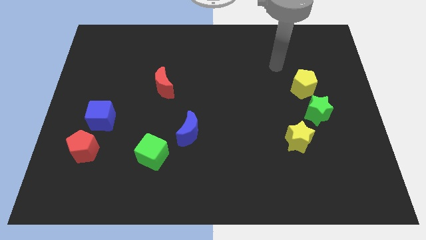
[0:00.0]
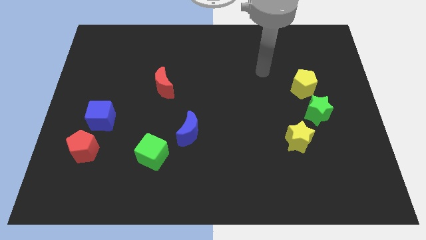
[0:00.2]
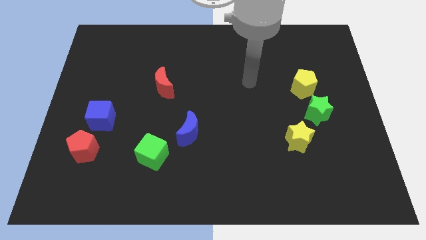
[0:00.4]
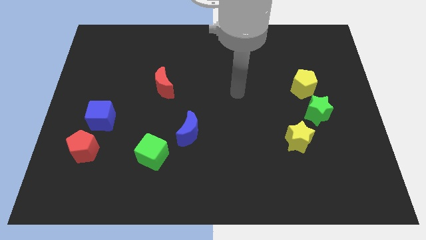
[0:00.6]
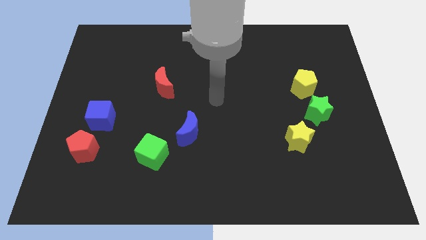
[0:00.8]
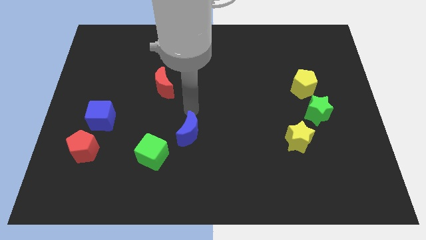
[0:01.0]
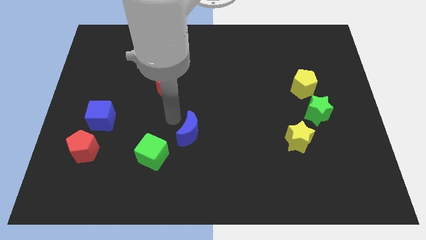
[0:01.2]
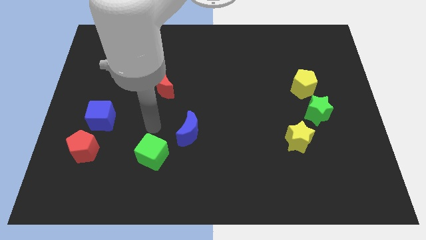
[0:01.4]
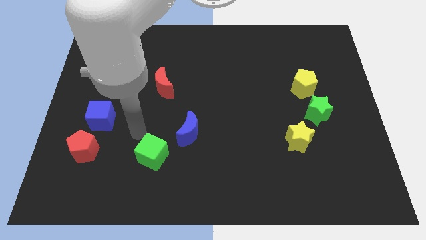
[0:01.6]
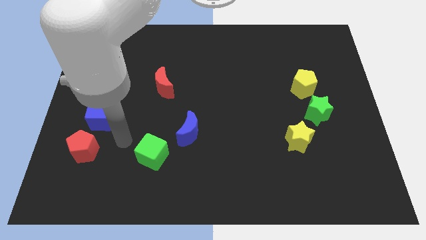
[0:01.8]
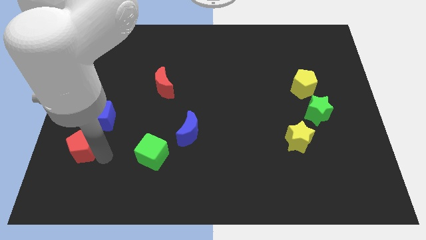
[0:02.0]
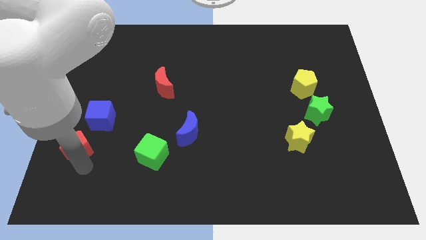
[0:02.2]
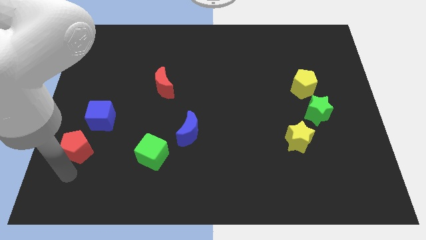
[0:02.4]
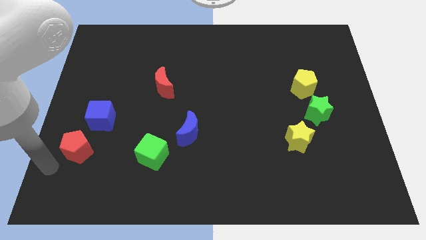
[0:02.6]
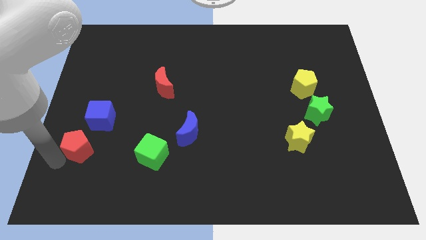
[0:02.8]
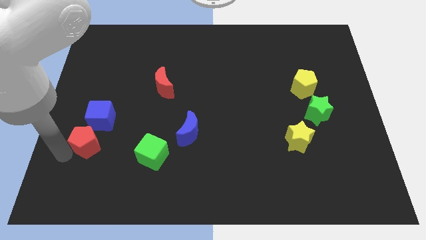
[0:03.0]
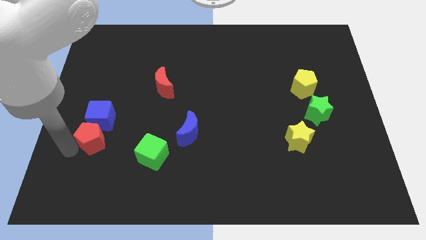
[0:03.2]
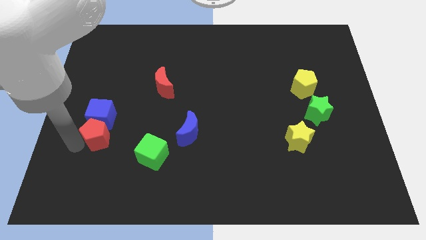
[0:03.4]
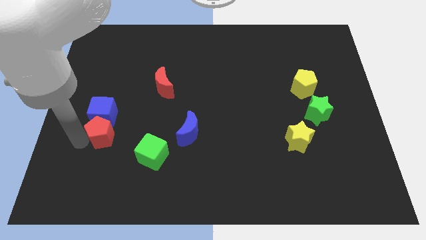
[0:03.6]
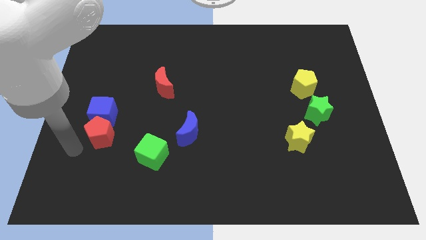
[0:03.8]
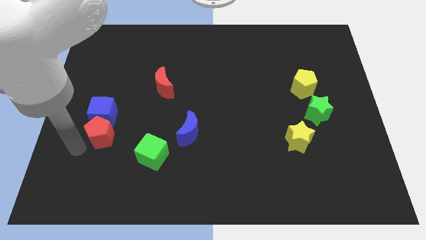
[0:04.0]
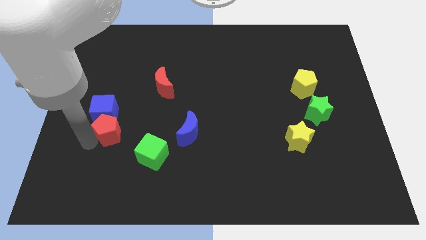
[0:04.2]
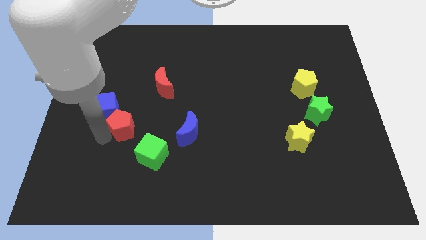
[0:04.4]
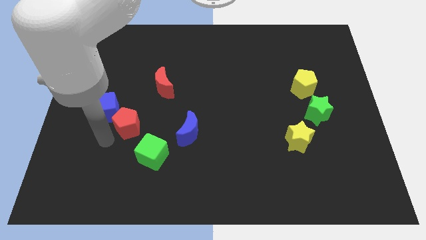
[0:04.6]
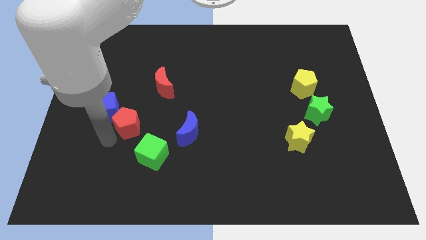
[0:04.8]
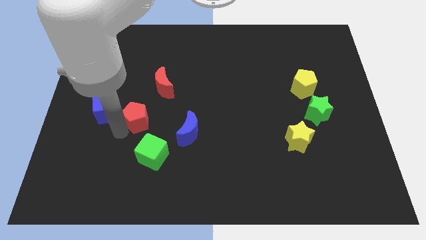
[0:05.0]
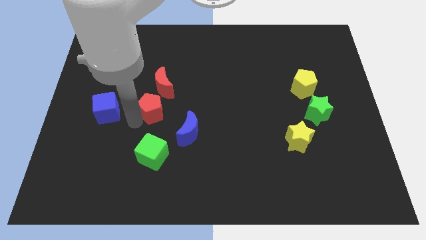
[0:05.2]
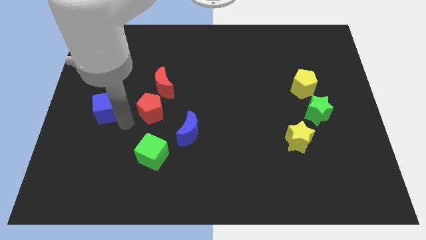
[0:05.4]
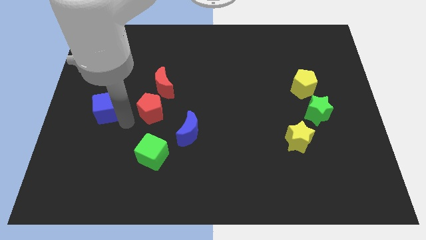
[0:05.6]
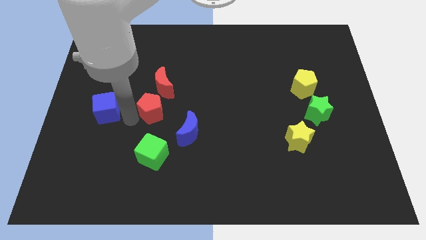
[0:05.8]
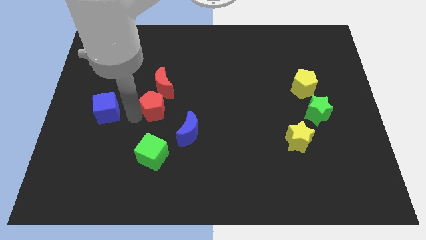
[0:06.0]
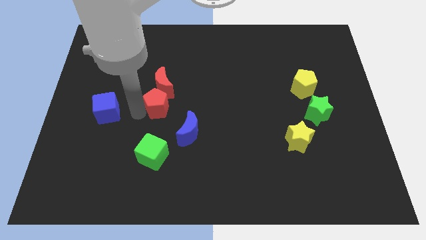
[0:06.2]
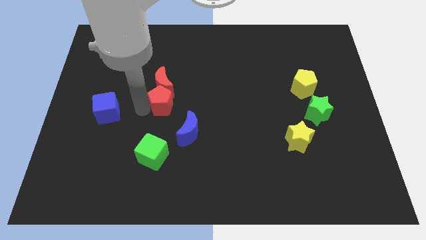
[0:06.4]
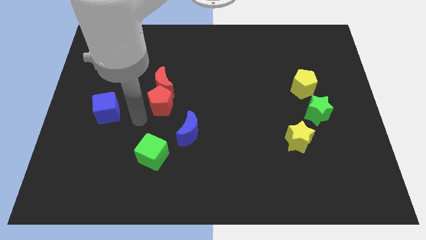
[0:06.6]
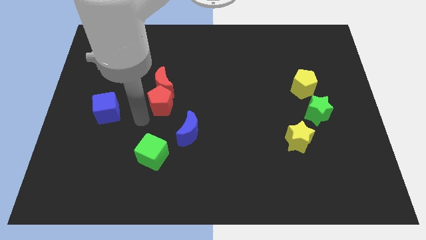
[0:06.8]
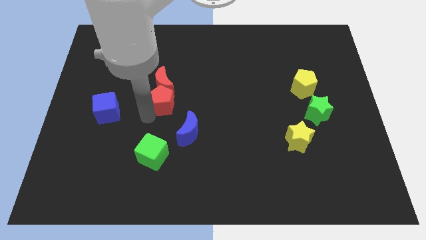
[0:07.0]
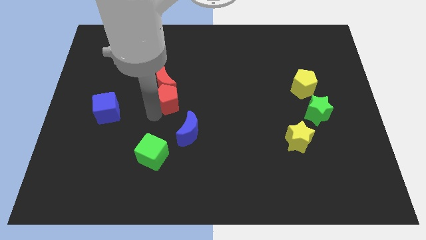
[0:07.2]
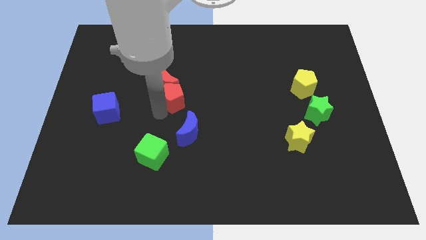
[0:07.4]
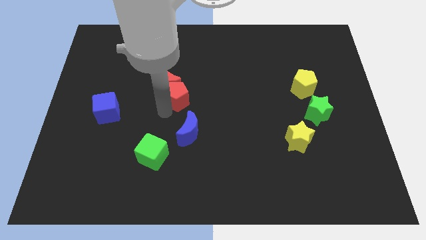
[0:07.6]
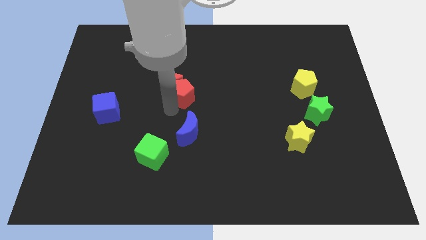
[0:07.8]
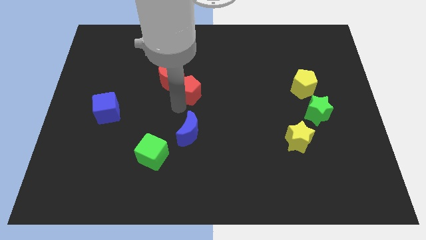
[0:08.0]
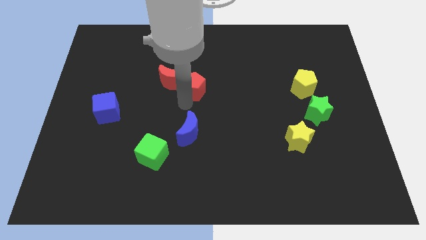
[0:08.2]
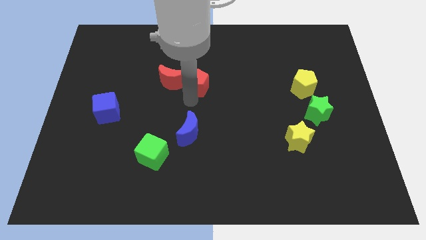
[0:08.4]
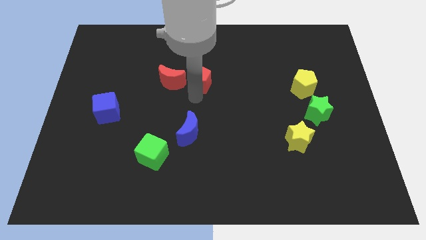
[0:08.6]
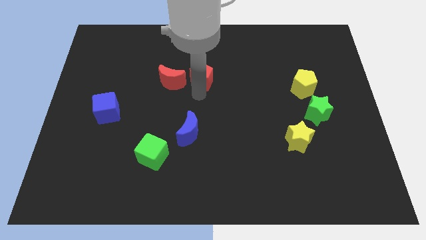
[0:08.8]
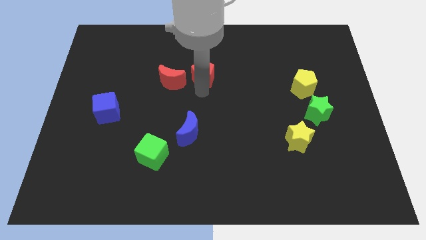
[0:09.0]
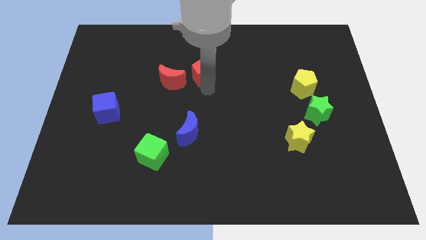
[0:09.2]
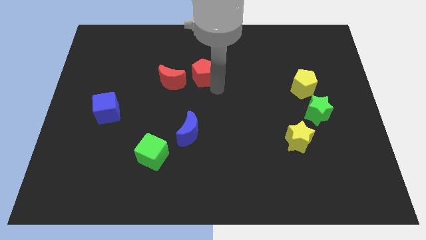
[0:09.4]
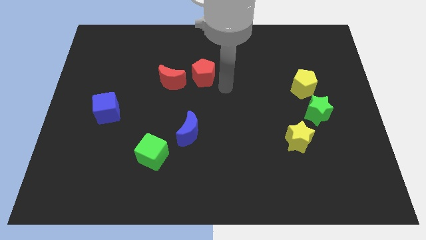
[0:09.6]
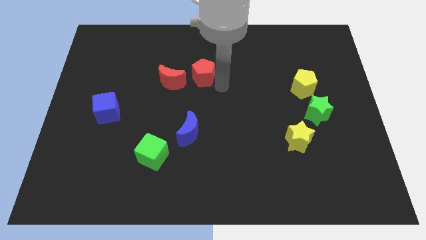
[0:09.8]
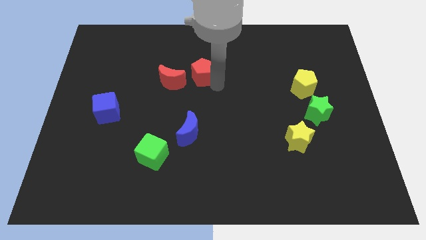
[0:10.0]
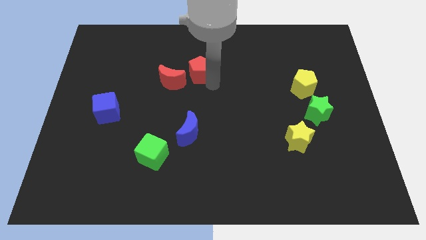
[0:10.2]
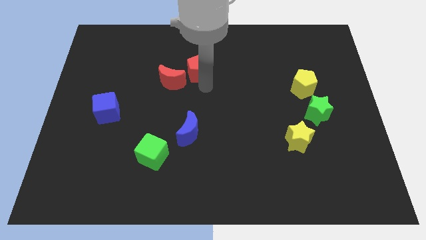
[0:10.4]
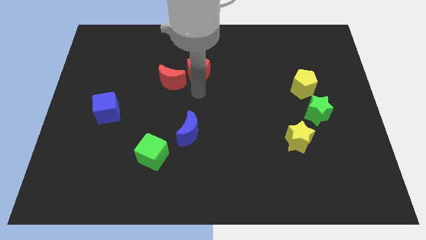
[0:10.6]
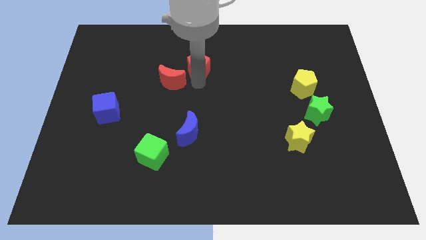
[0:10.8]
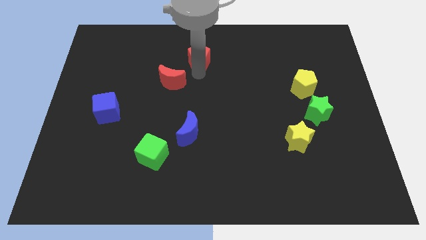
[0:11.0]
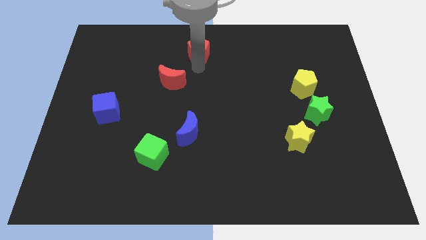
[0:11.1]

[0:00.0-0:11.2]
put the red pentagon to the top

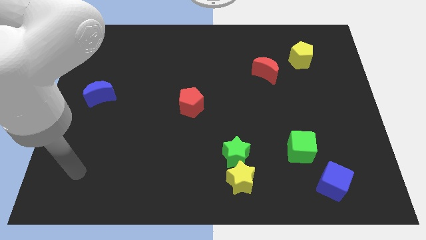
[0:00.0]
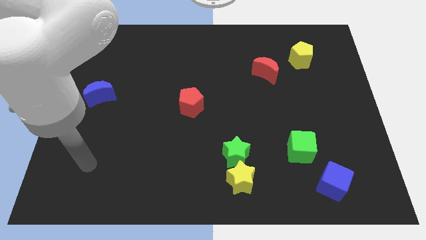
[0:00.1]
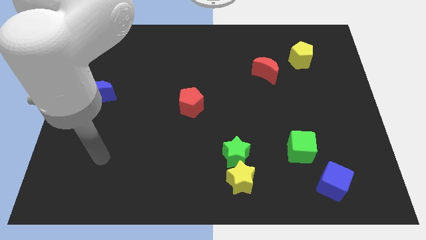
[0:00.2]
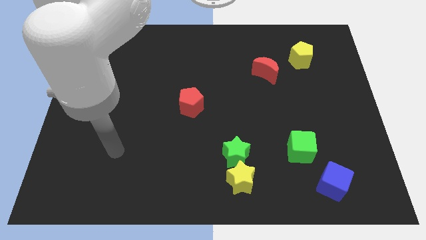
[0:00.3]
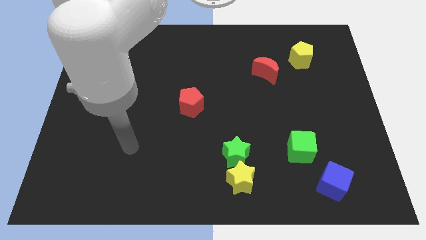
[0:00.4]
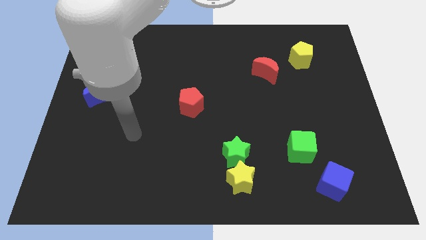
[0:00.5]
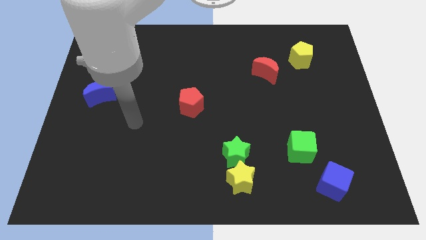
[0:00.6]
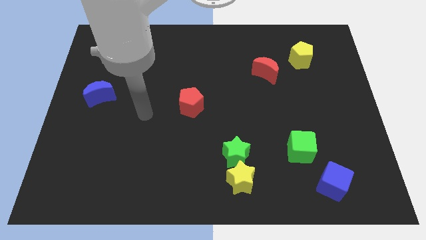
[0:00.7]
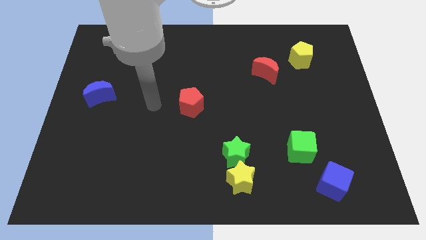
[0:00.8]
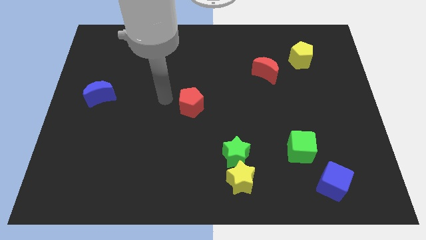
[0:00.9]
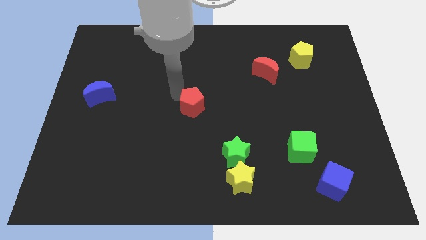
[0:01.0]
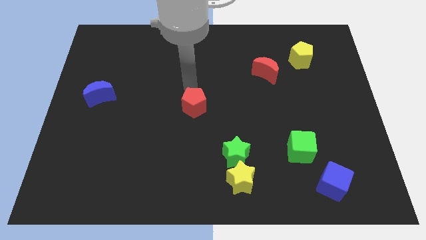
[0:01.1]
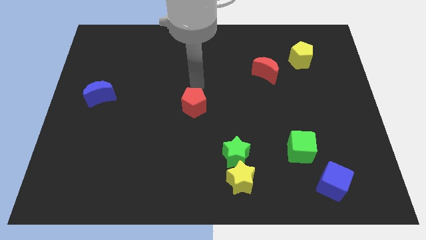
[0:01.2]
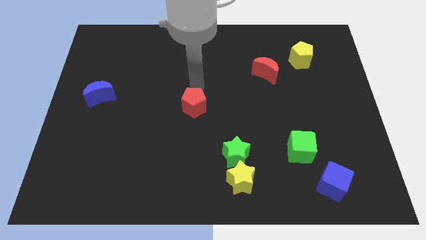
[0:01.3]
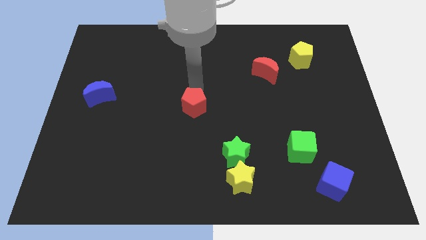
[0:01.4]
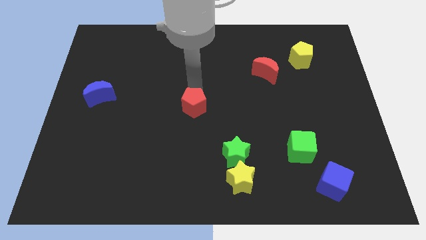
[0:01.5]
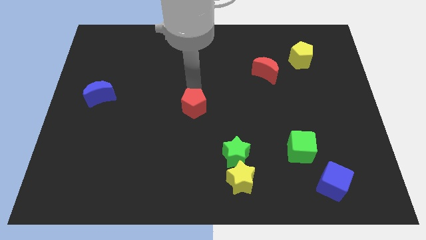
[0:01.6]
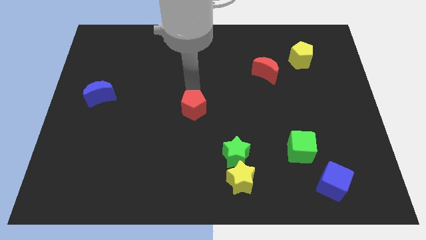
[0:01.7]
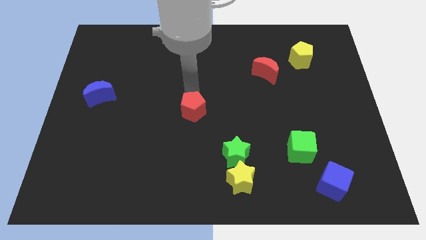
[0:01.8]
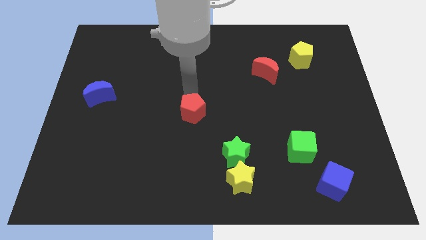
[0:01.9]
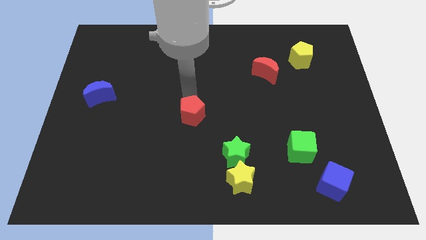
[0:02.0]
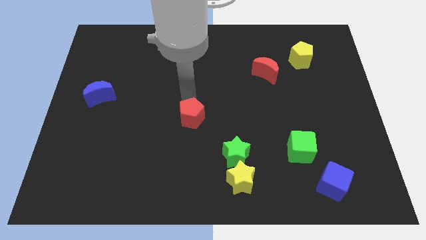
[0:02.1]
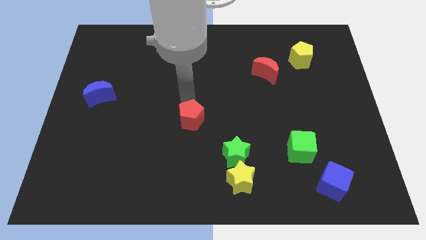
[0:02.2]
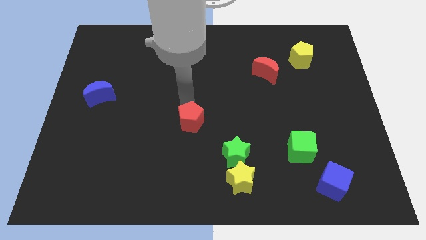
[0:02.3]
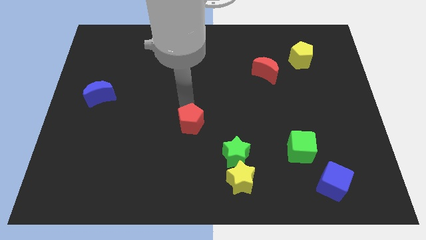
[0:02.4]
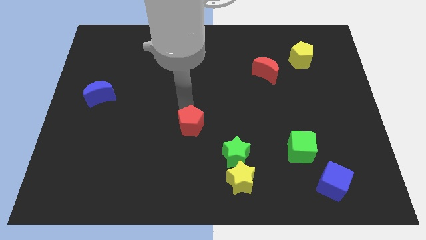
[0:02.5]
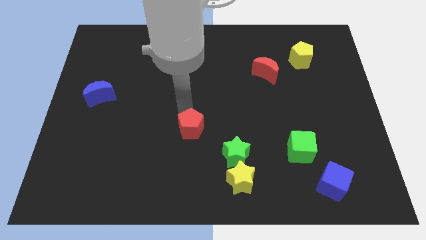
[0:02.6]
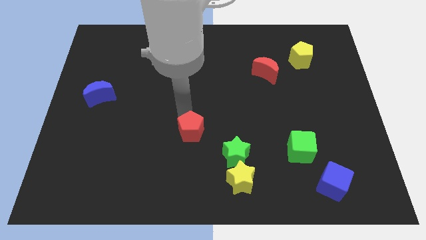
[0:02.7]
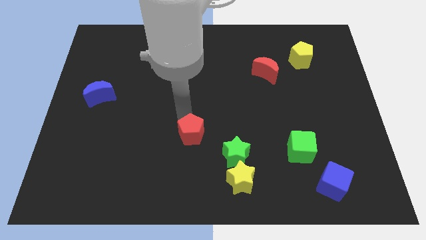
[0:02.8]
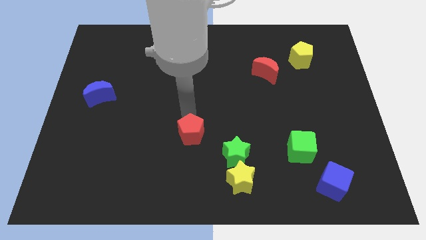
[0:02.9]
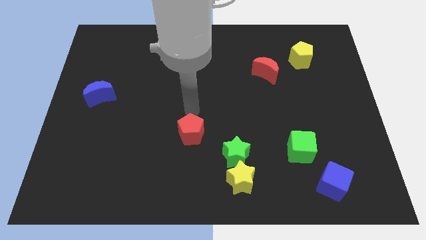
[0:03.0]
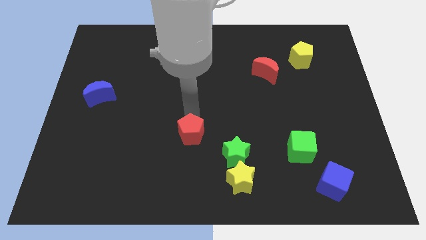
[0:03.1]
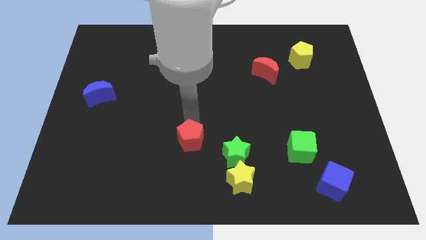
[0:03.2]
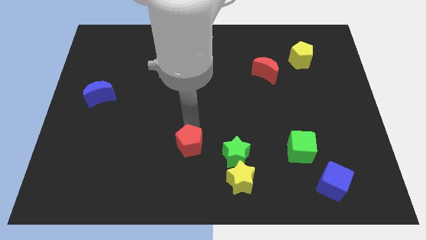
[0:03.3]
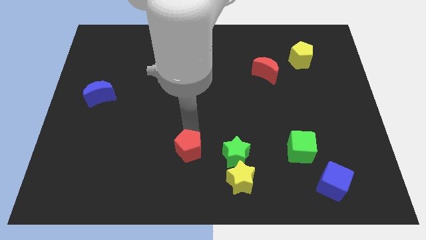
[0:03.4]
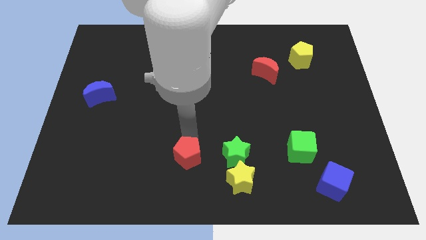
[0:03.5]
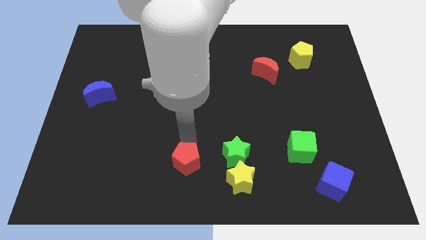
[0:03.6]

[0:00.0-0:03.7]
push the red pentagon to the bottom side
